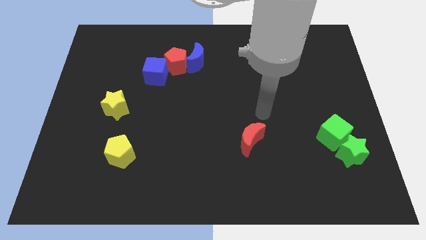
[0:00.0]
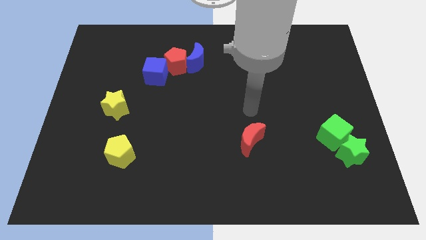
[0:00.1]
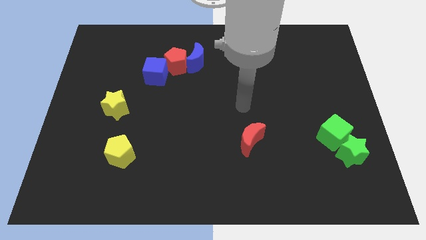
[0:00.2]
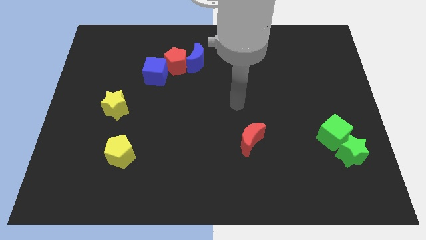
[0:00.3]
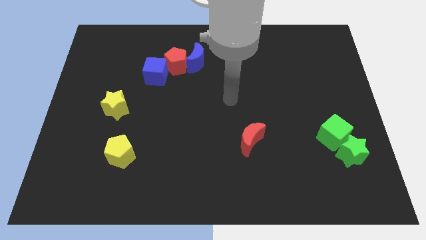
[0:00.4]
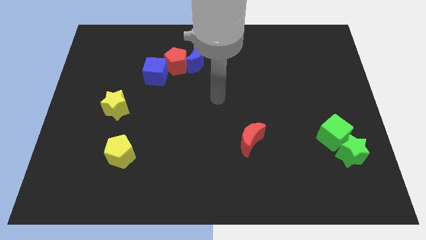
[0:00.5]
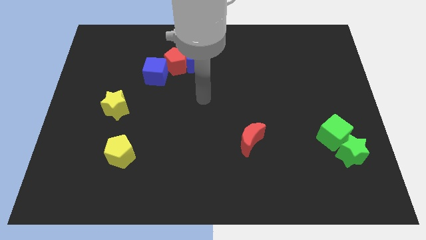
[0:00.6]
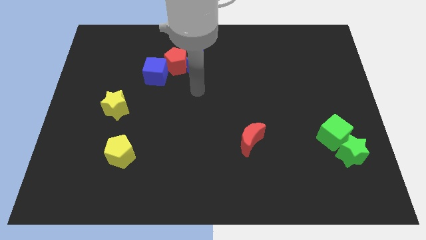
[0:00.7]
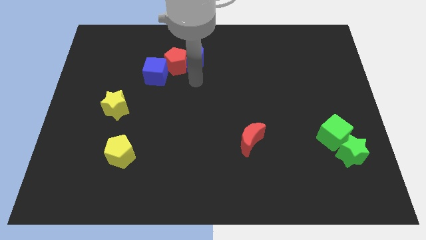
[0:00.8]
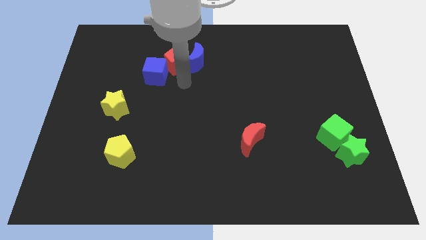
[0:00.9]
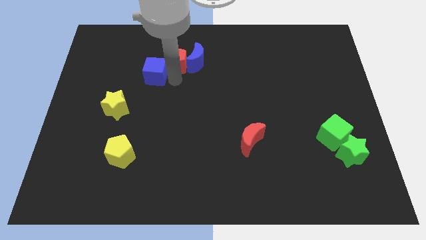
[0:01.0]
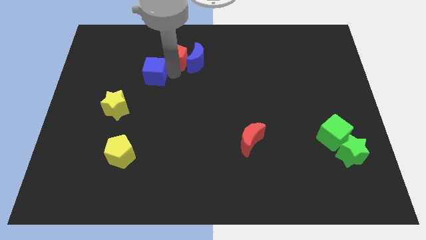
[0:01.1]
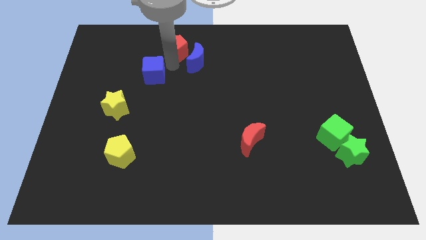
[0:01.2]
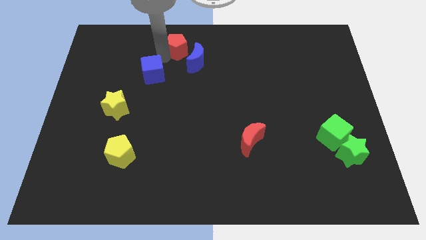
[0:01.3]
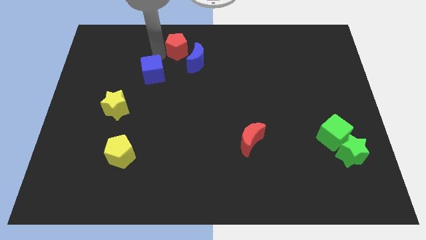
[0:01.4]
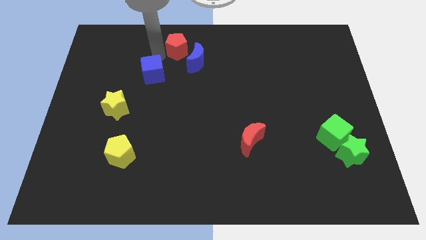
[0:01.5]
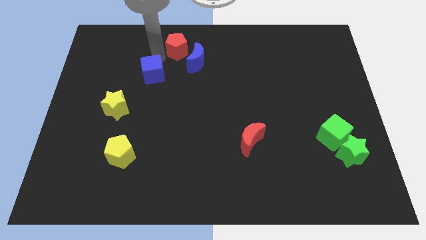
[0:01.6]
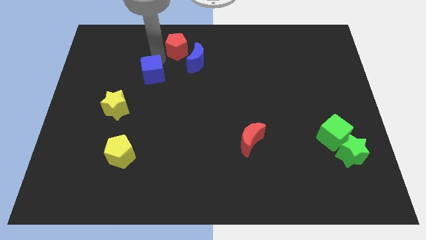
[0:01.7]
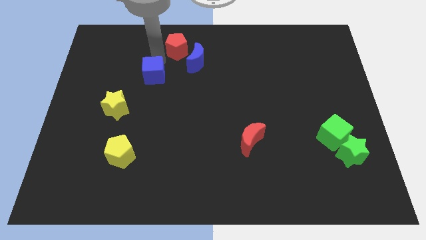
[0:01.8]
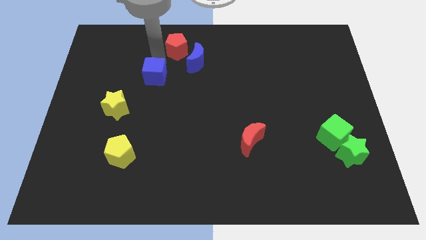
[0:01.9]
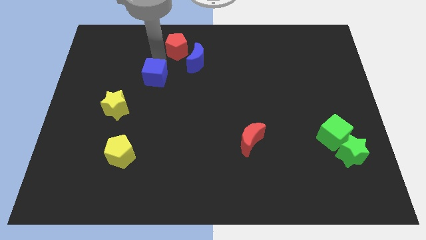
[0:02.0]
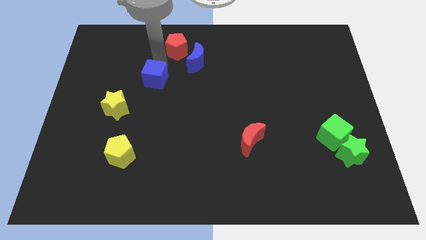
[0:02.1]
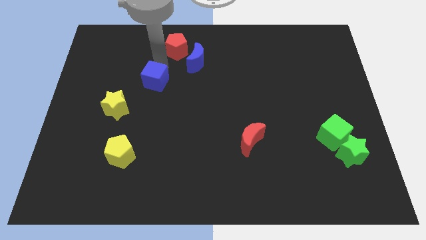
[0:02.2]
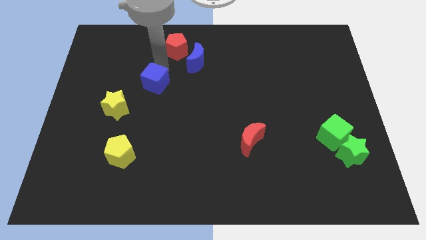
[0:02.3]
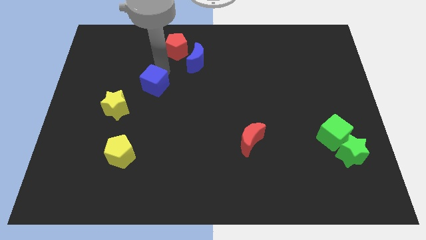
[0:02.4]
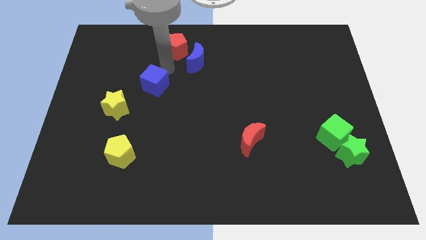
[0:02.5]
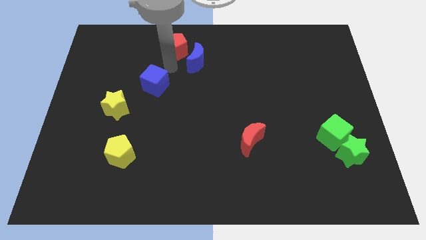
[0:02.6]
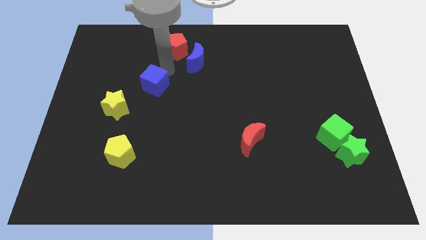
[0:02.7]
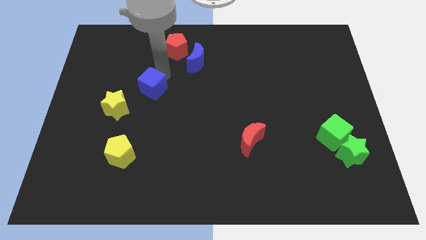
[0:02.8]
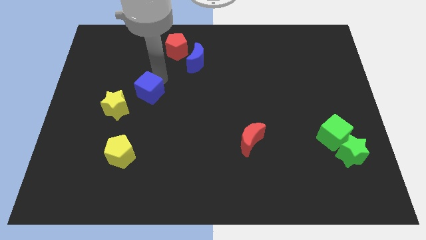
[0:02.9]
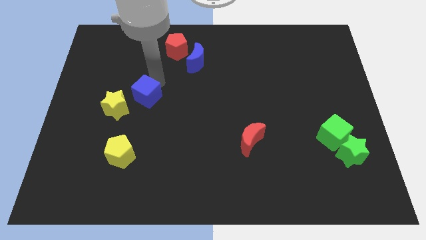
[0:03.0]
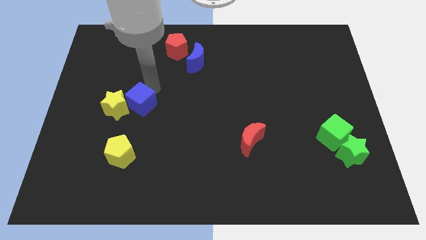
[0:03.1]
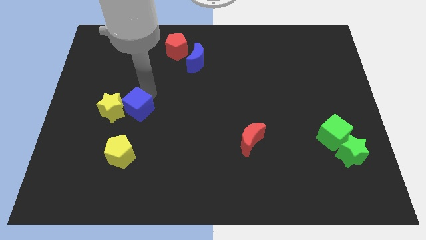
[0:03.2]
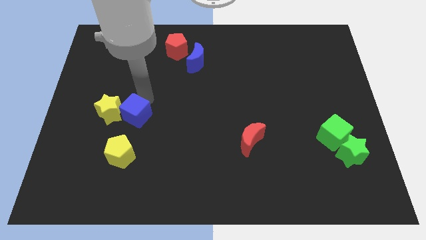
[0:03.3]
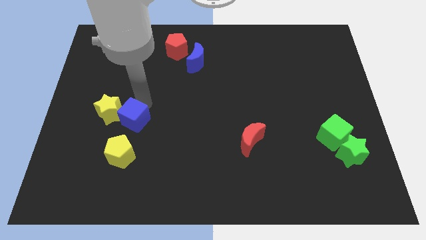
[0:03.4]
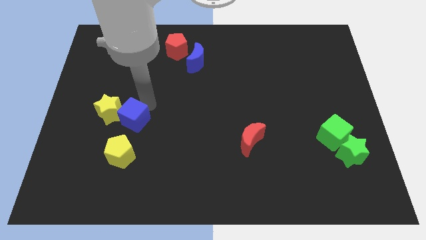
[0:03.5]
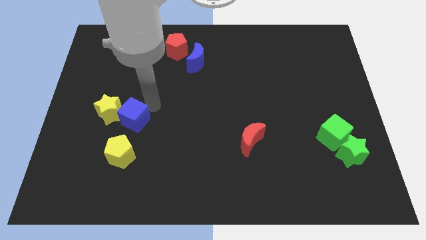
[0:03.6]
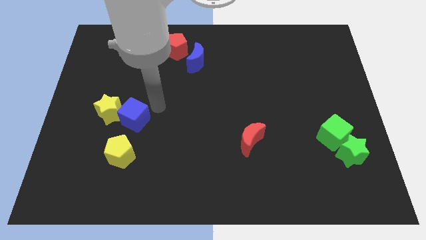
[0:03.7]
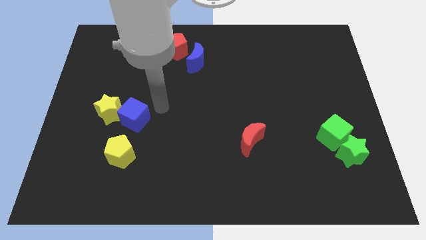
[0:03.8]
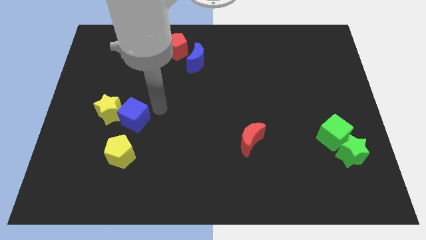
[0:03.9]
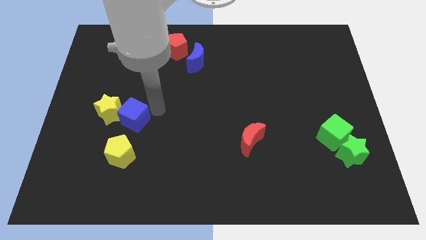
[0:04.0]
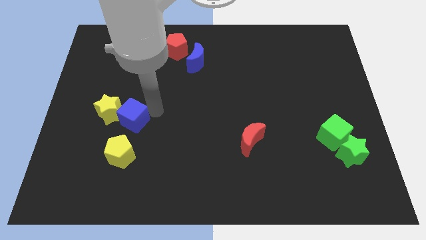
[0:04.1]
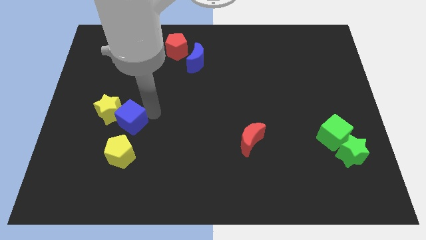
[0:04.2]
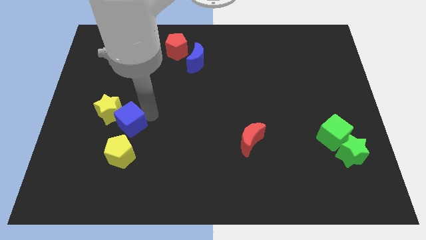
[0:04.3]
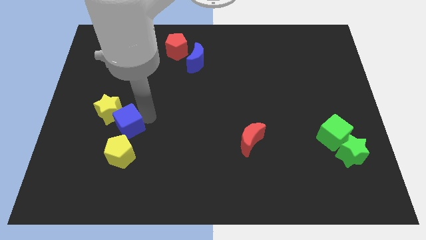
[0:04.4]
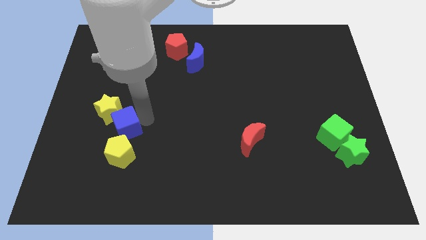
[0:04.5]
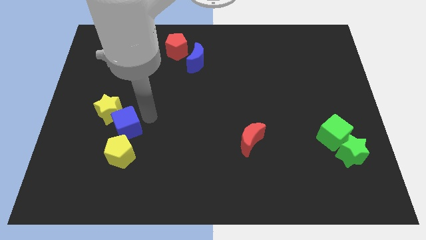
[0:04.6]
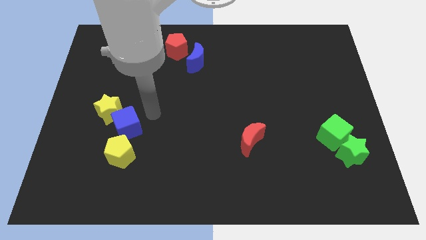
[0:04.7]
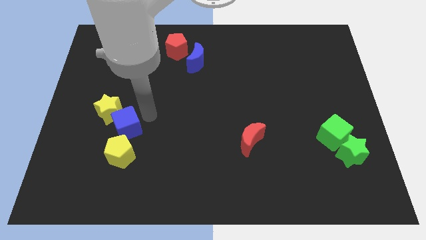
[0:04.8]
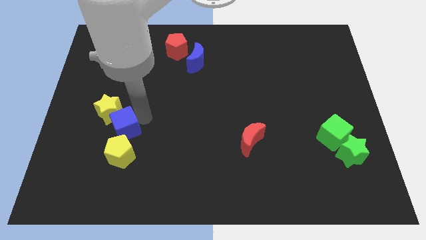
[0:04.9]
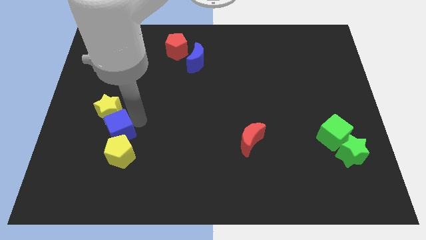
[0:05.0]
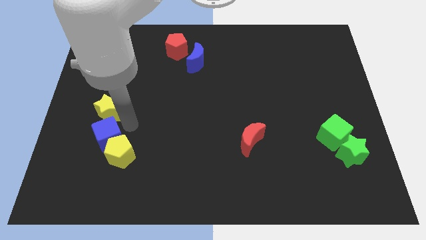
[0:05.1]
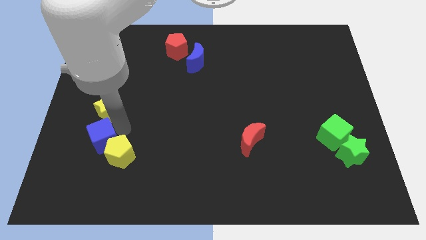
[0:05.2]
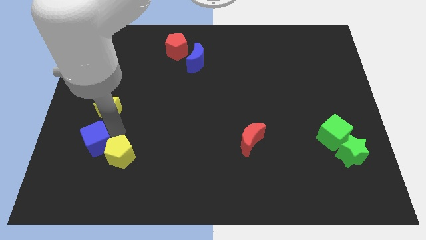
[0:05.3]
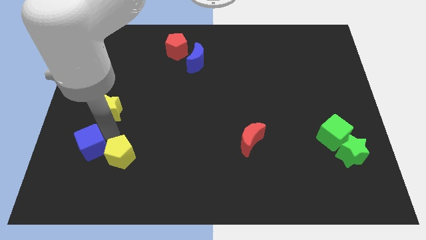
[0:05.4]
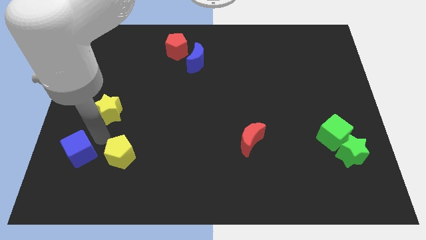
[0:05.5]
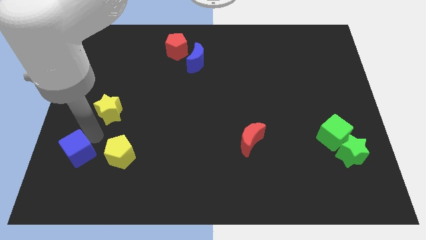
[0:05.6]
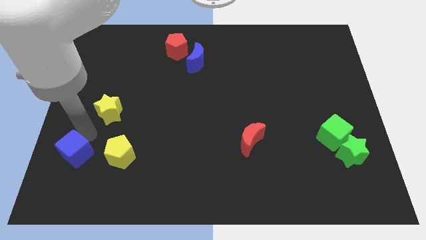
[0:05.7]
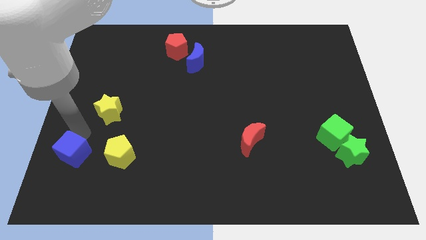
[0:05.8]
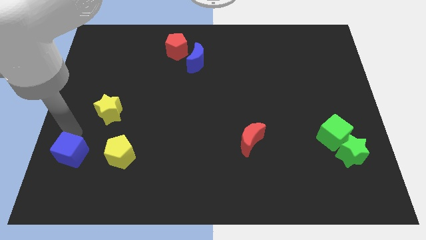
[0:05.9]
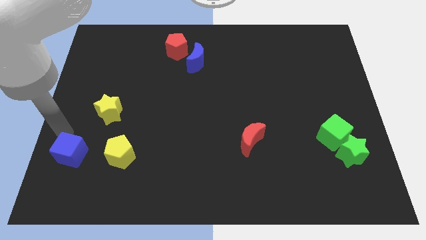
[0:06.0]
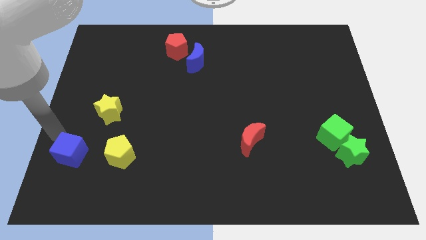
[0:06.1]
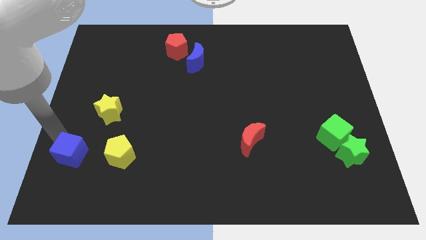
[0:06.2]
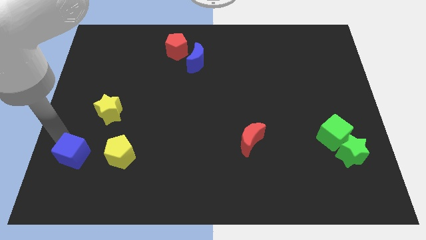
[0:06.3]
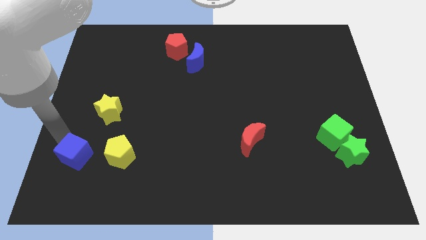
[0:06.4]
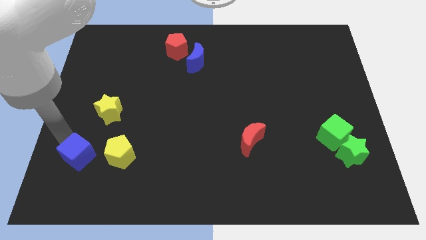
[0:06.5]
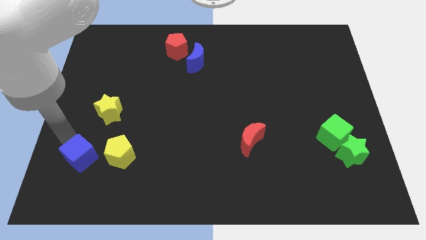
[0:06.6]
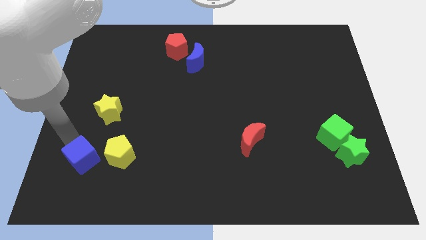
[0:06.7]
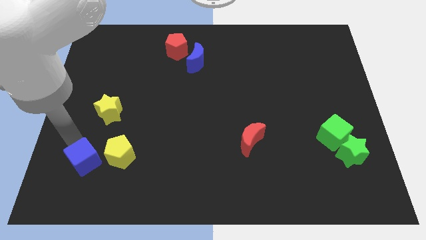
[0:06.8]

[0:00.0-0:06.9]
slide the blue cube to the bottom left of the yellow pentagon

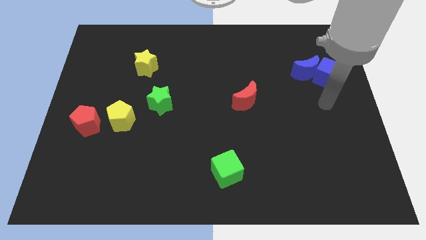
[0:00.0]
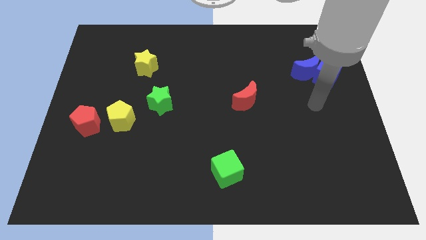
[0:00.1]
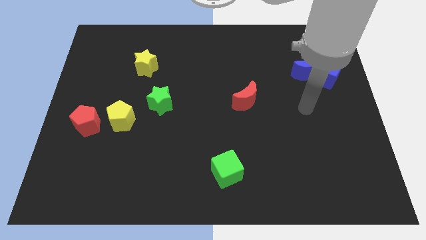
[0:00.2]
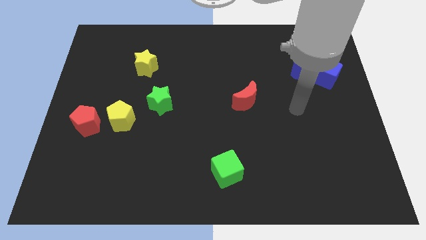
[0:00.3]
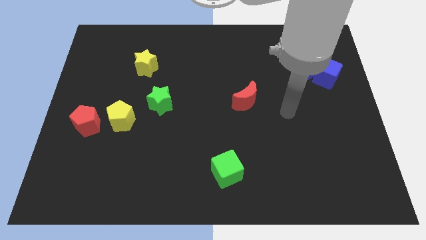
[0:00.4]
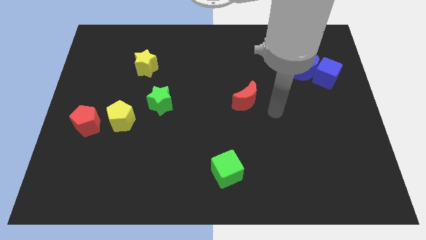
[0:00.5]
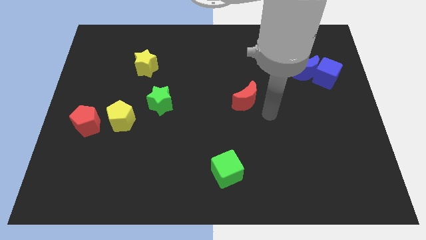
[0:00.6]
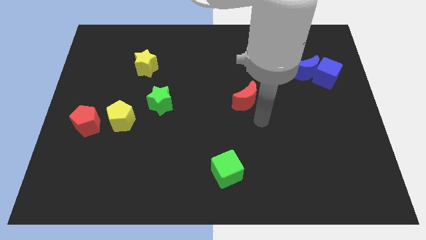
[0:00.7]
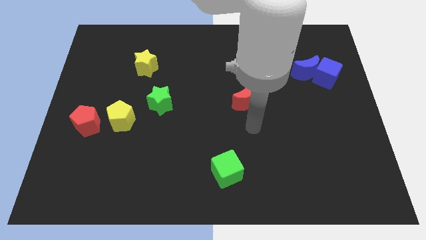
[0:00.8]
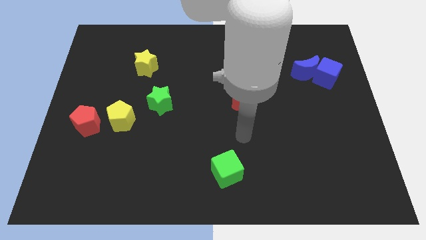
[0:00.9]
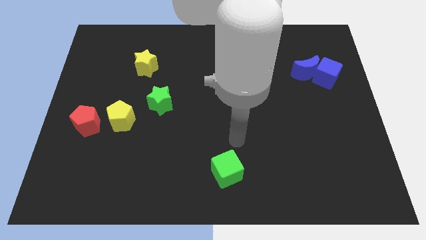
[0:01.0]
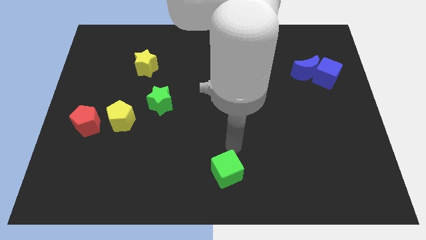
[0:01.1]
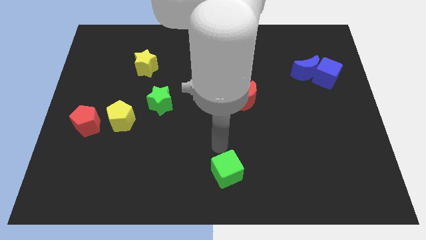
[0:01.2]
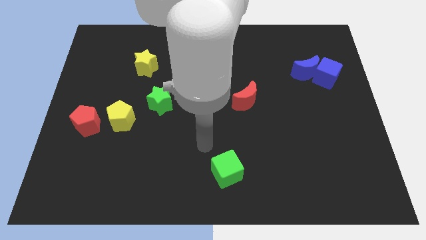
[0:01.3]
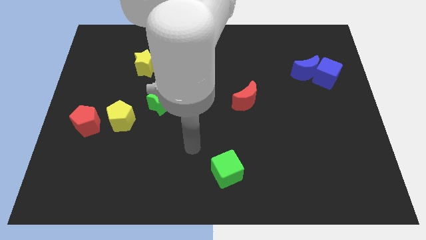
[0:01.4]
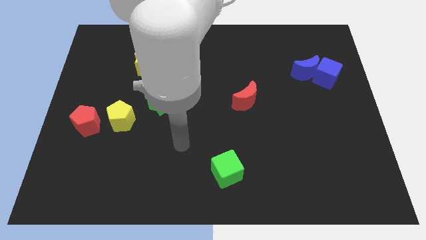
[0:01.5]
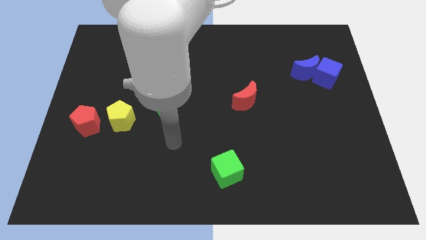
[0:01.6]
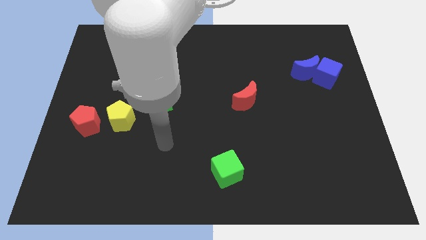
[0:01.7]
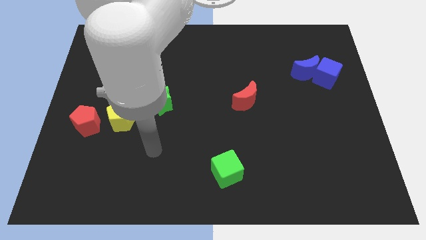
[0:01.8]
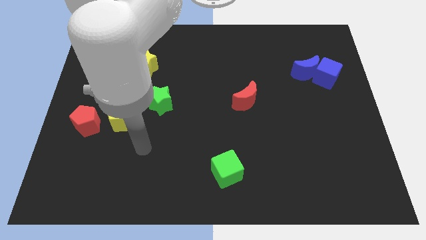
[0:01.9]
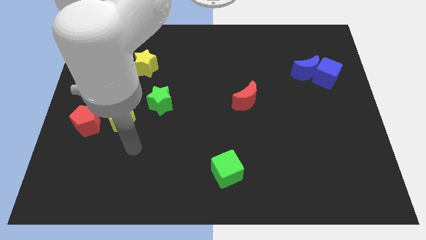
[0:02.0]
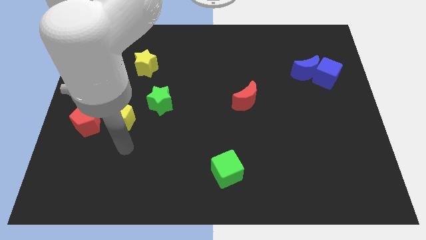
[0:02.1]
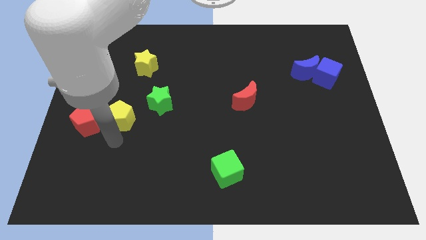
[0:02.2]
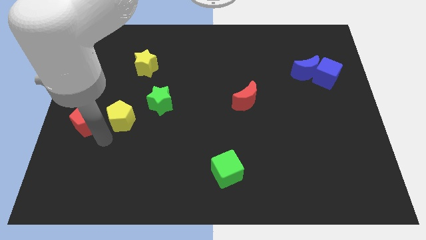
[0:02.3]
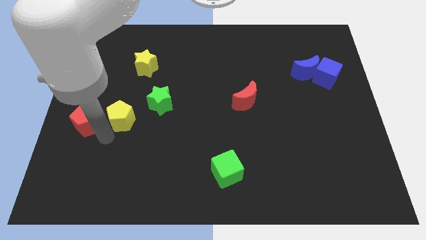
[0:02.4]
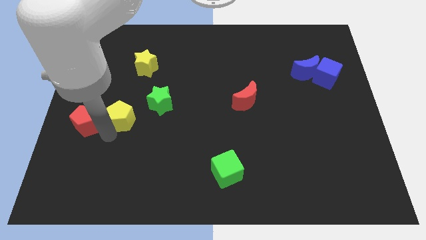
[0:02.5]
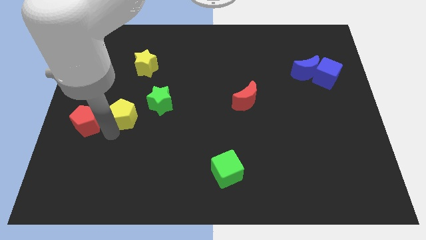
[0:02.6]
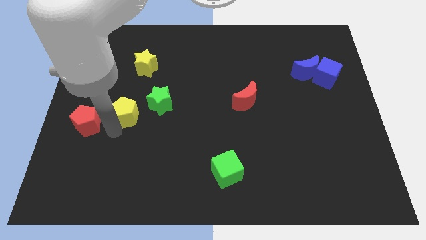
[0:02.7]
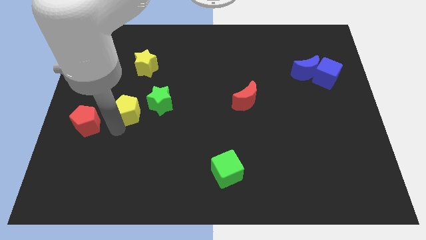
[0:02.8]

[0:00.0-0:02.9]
move the yellow pentagon to the bottom of the yellow star
